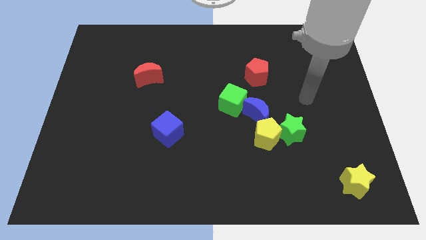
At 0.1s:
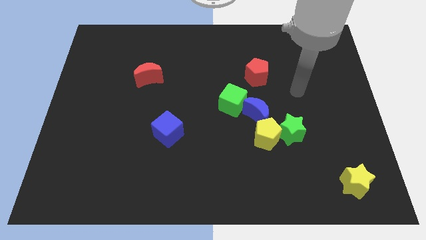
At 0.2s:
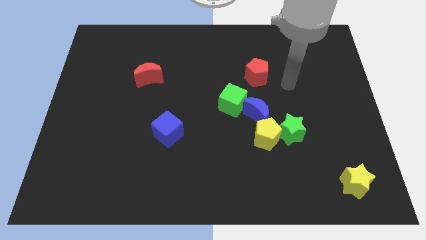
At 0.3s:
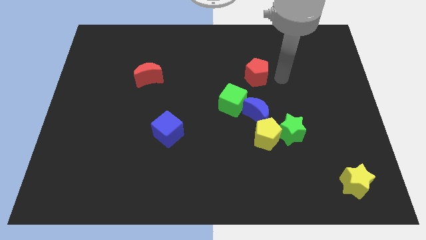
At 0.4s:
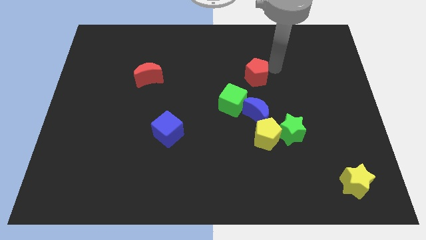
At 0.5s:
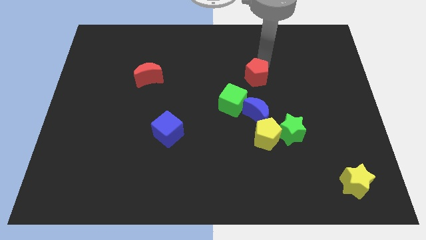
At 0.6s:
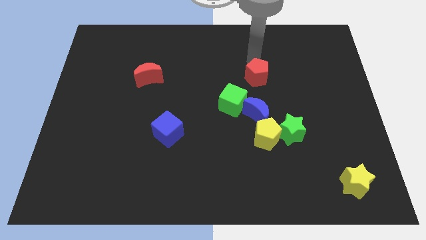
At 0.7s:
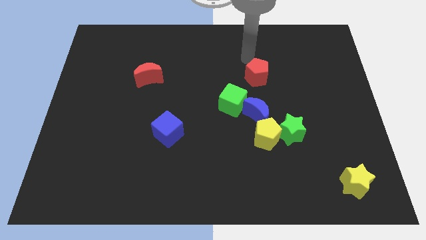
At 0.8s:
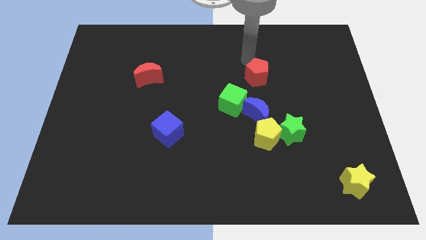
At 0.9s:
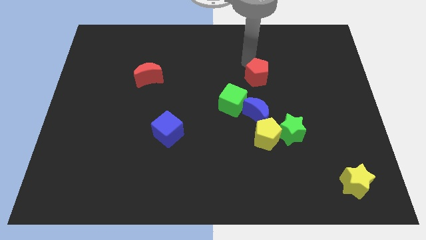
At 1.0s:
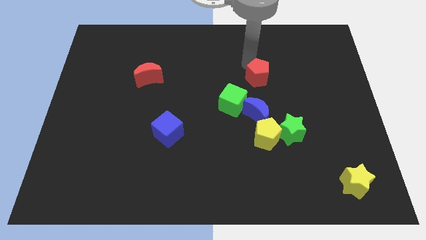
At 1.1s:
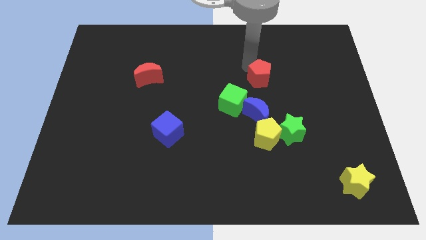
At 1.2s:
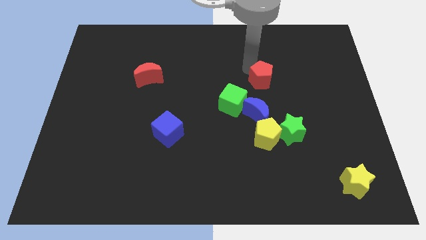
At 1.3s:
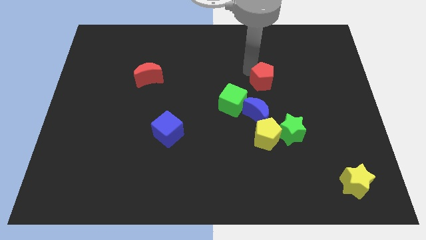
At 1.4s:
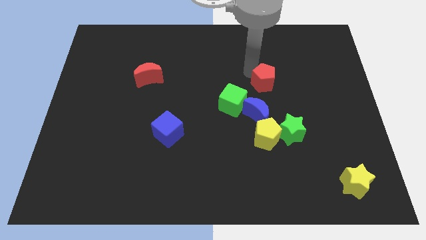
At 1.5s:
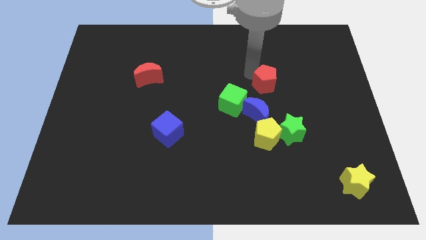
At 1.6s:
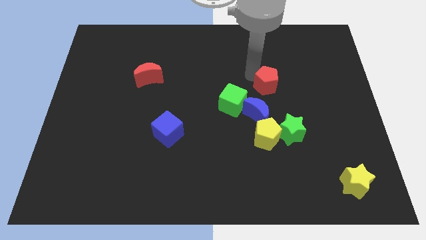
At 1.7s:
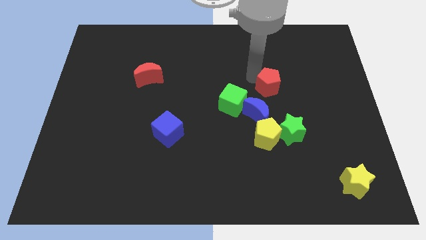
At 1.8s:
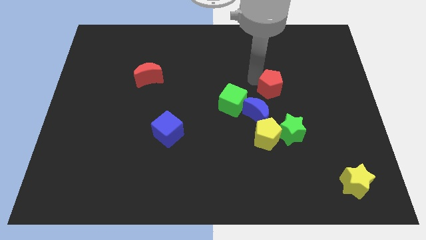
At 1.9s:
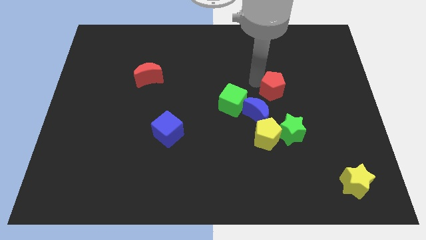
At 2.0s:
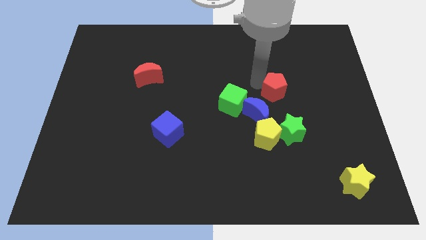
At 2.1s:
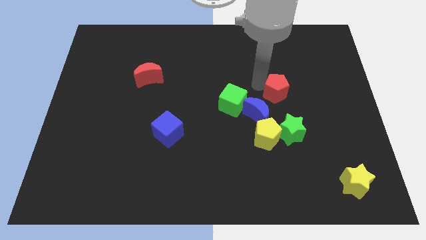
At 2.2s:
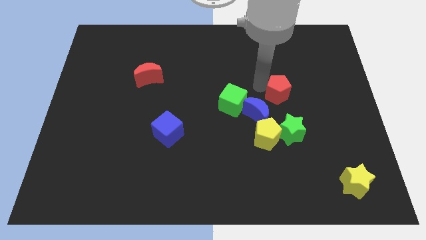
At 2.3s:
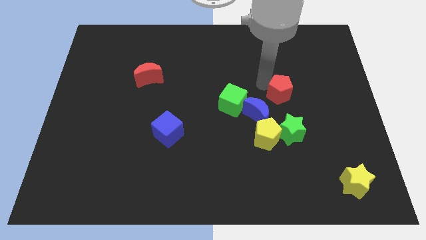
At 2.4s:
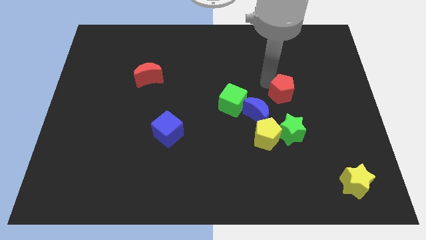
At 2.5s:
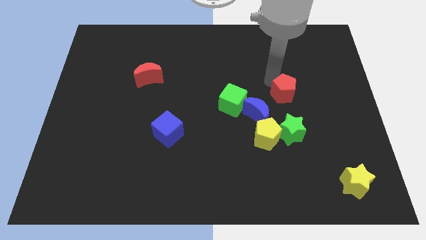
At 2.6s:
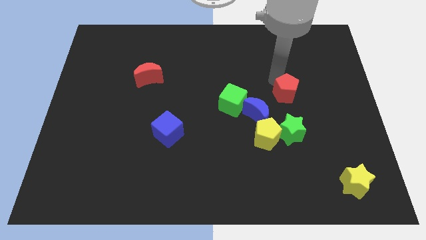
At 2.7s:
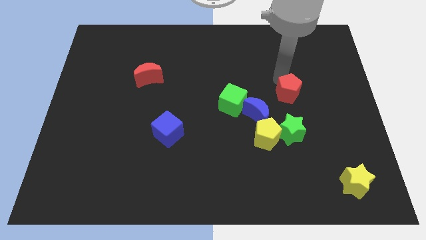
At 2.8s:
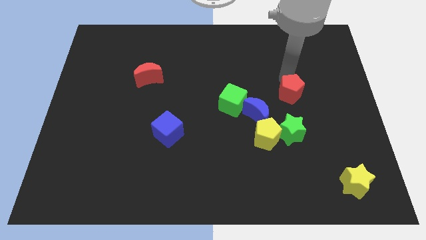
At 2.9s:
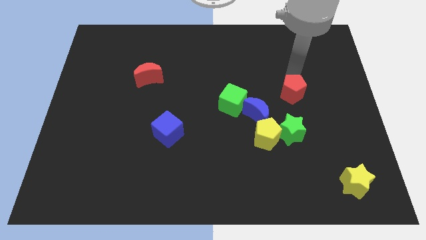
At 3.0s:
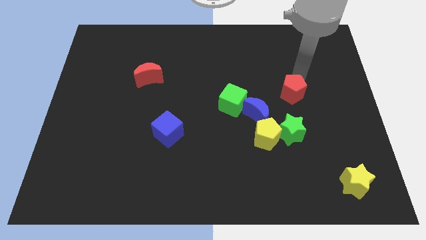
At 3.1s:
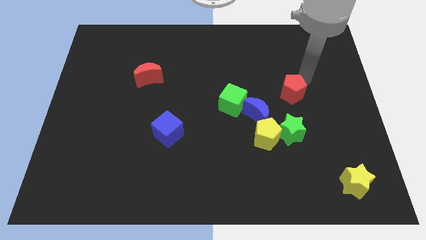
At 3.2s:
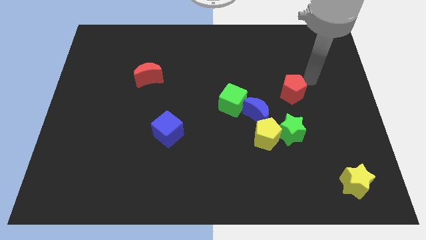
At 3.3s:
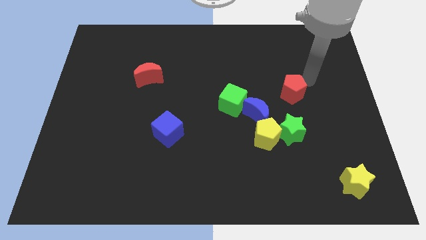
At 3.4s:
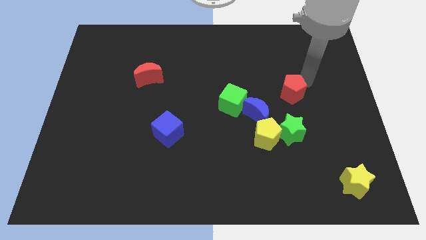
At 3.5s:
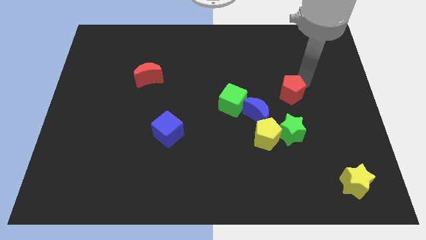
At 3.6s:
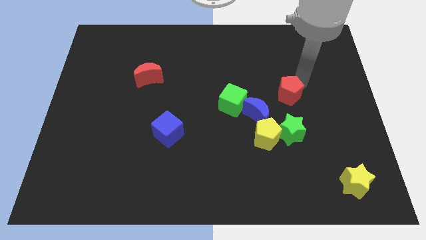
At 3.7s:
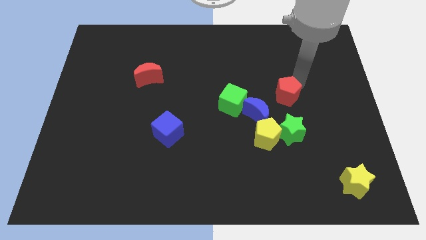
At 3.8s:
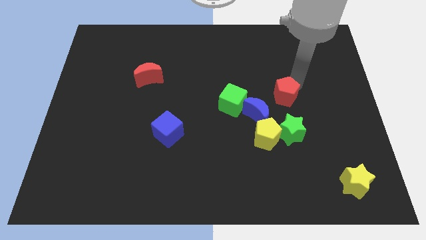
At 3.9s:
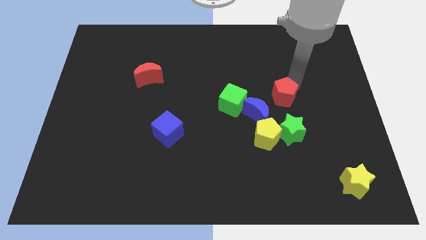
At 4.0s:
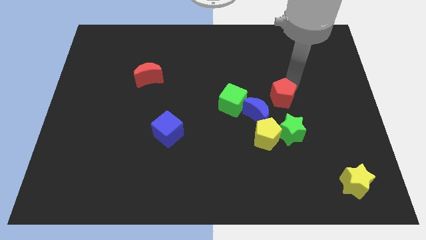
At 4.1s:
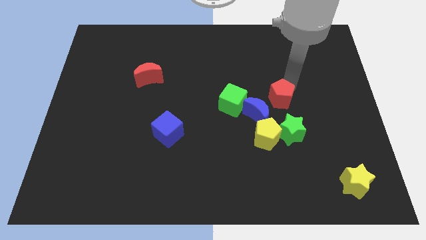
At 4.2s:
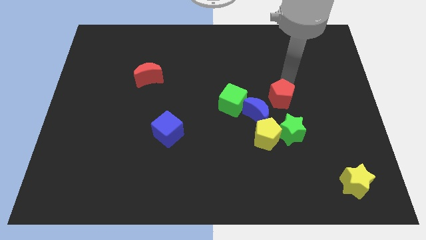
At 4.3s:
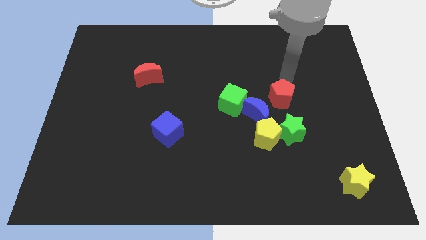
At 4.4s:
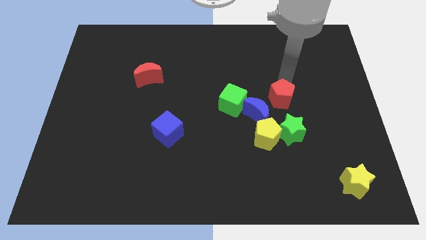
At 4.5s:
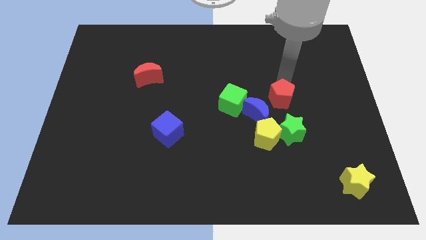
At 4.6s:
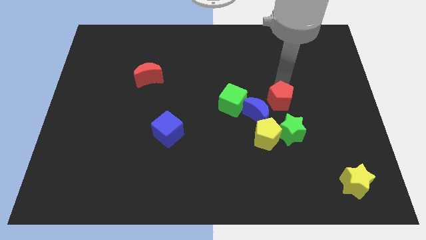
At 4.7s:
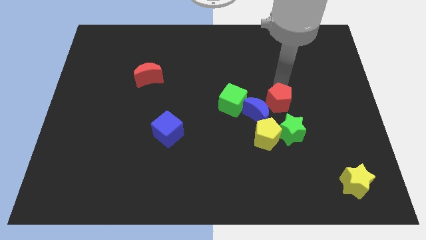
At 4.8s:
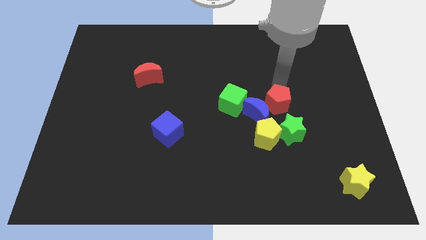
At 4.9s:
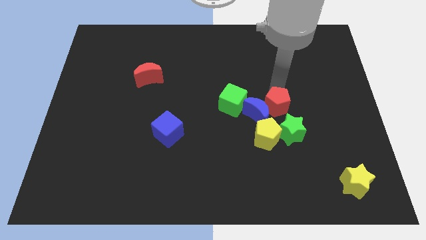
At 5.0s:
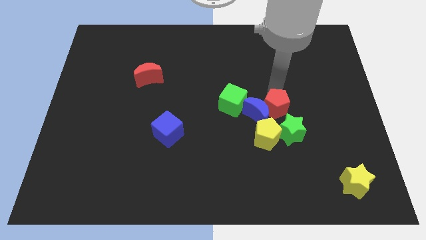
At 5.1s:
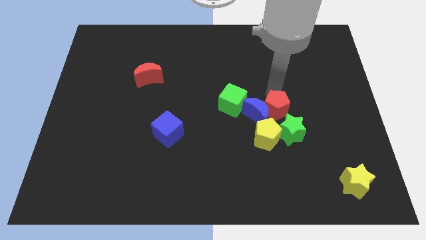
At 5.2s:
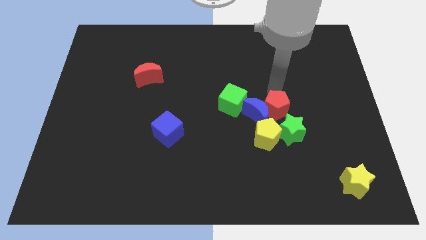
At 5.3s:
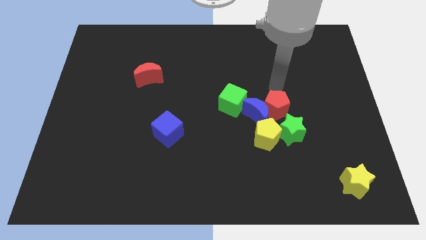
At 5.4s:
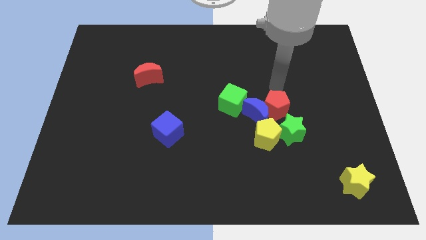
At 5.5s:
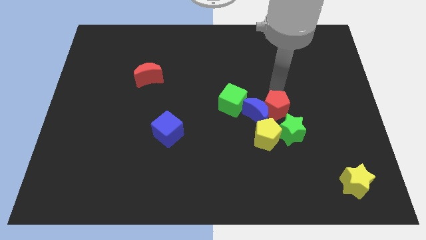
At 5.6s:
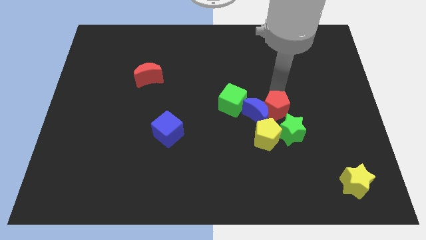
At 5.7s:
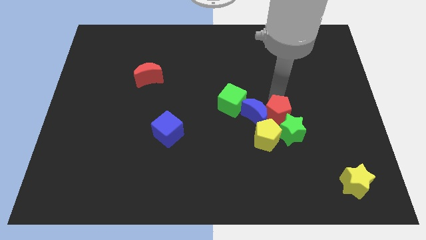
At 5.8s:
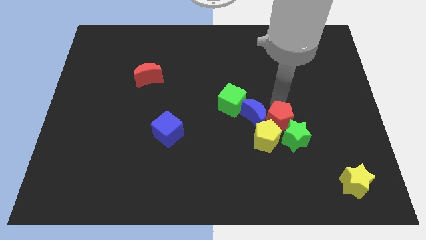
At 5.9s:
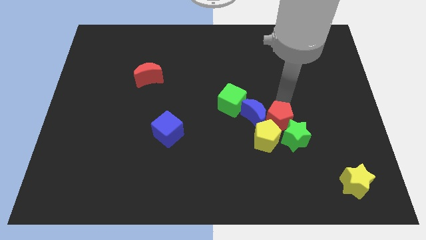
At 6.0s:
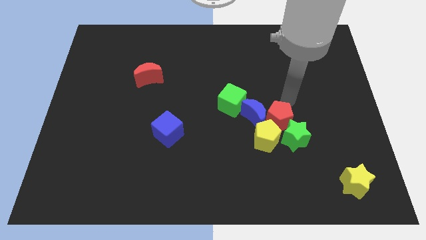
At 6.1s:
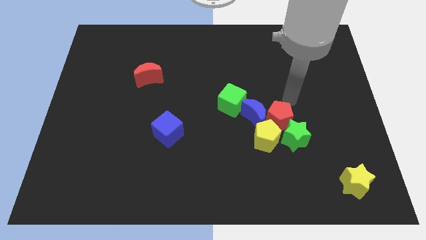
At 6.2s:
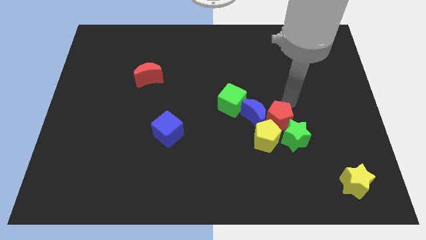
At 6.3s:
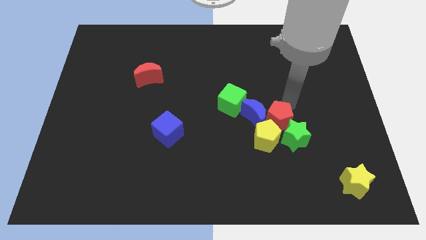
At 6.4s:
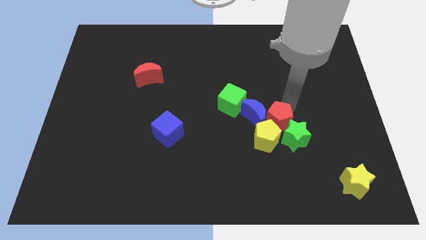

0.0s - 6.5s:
slide the red pentagon to the yellow pentagon

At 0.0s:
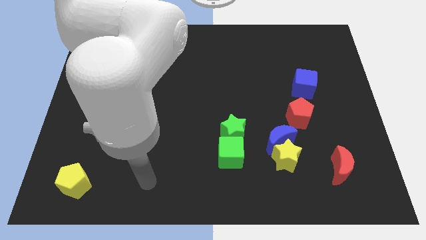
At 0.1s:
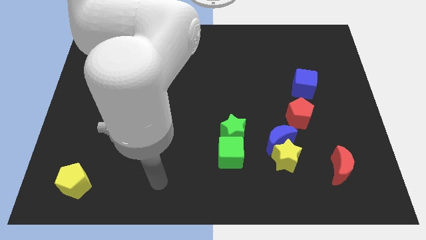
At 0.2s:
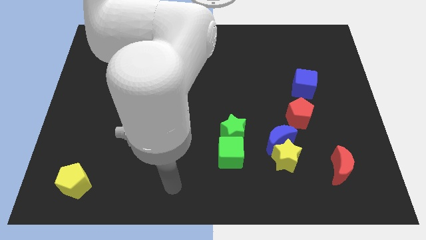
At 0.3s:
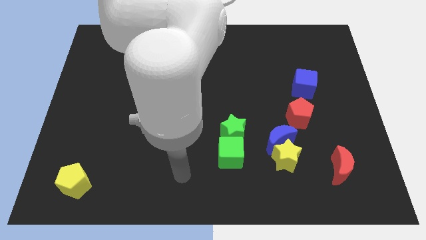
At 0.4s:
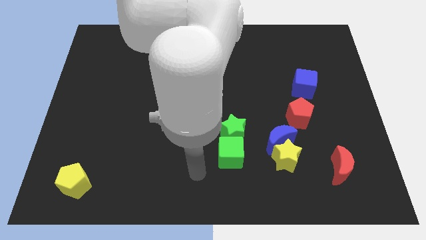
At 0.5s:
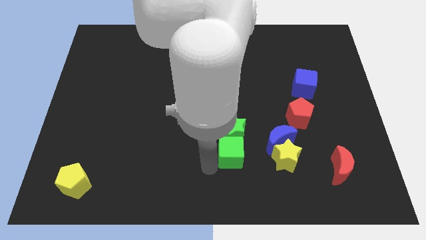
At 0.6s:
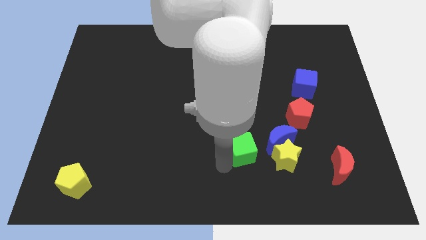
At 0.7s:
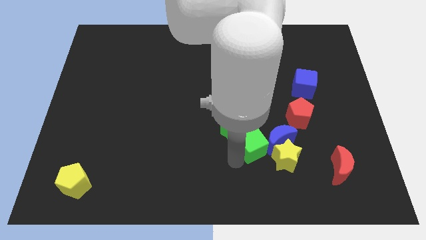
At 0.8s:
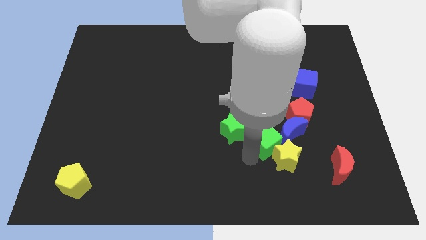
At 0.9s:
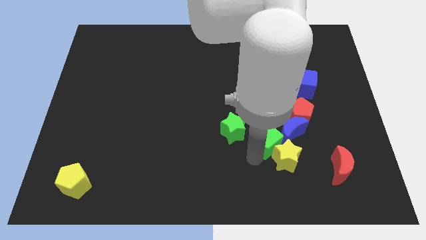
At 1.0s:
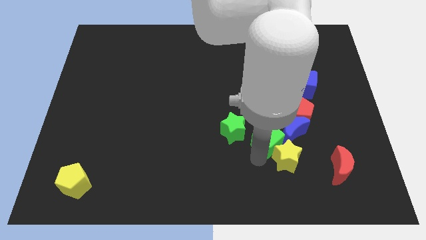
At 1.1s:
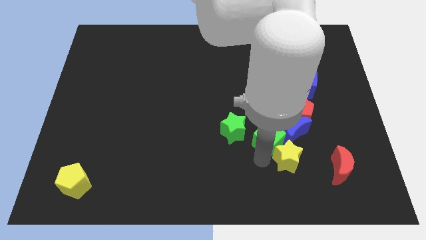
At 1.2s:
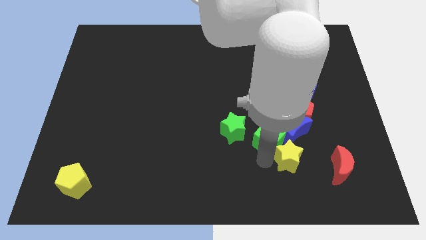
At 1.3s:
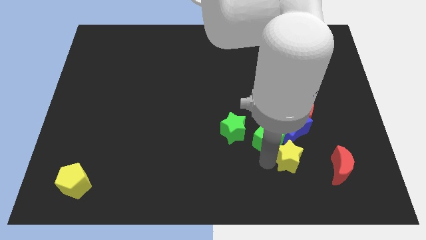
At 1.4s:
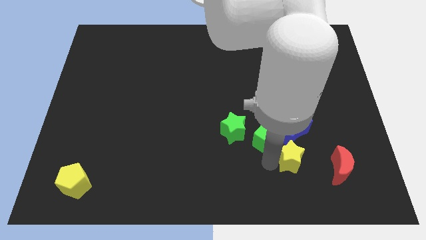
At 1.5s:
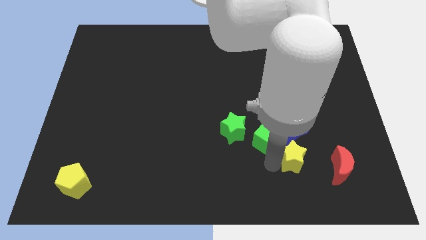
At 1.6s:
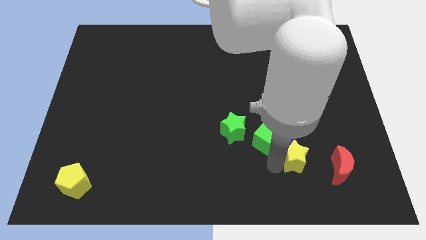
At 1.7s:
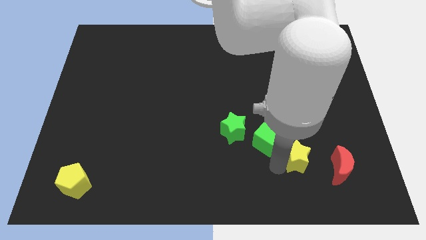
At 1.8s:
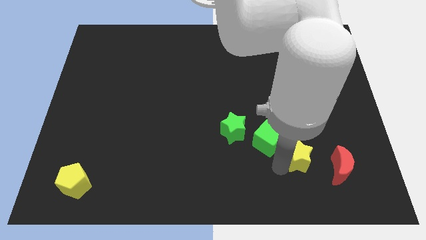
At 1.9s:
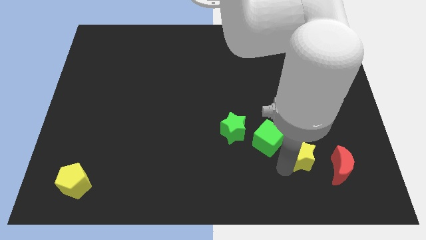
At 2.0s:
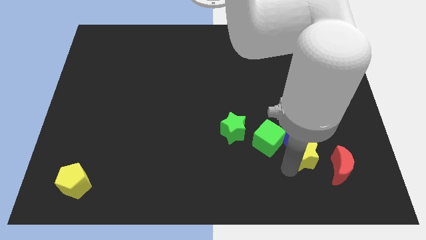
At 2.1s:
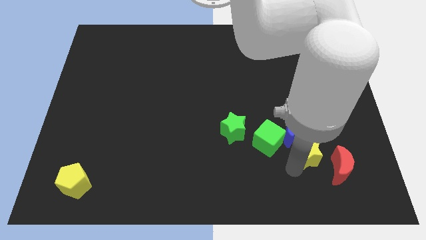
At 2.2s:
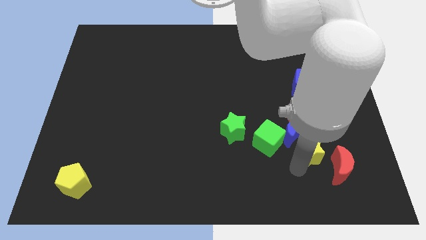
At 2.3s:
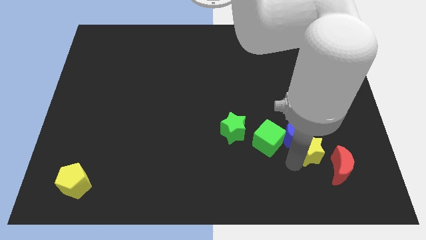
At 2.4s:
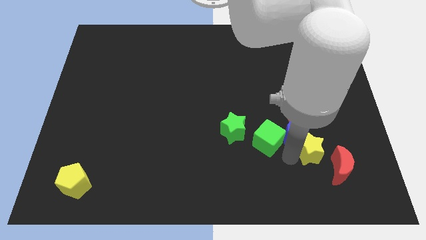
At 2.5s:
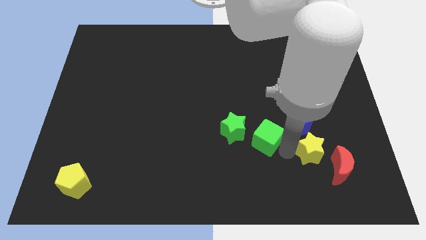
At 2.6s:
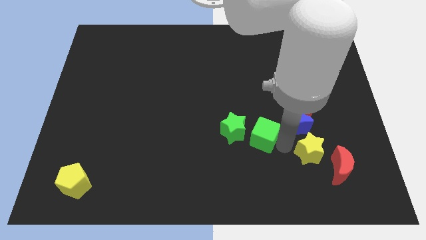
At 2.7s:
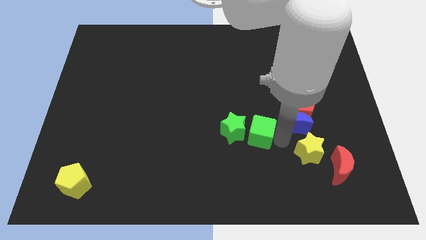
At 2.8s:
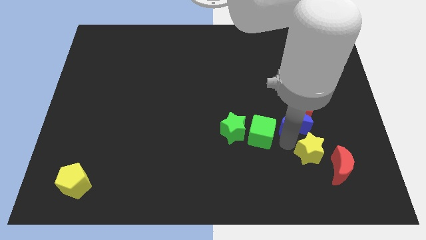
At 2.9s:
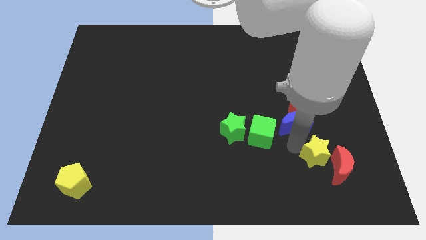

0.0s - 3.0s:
push the yellow star next to the red moon
